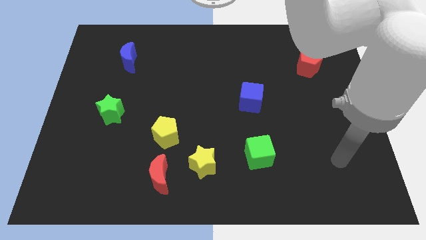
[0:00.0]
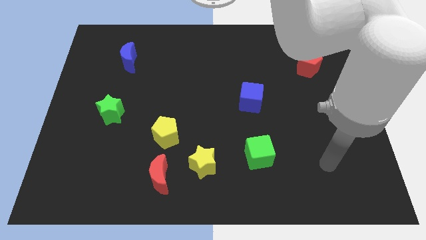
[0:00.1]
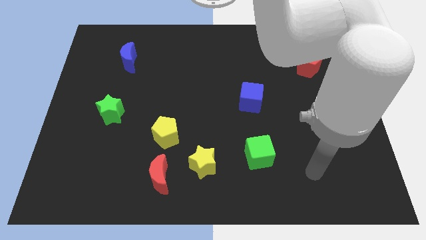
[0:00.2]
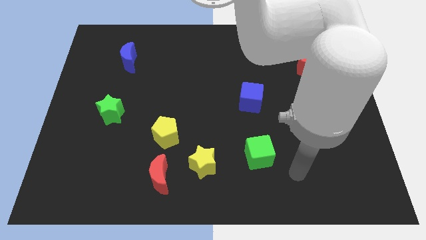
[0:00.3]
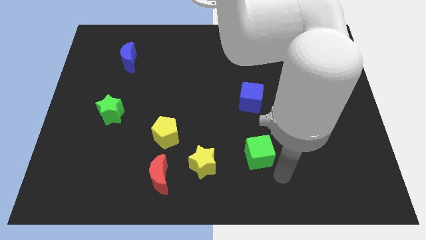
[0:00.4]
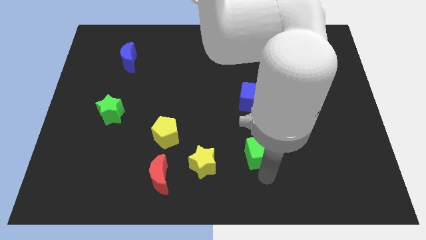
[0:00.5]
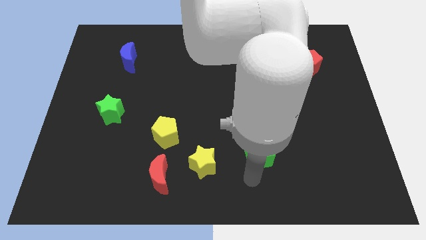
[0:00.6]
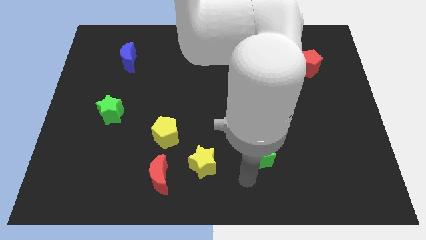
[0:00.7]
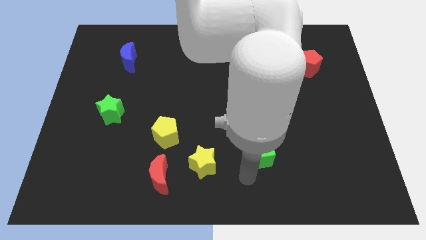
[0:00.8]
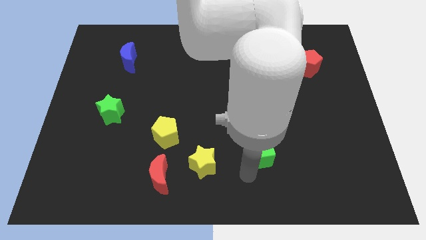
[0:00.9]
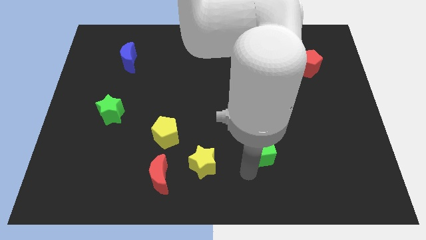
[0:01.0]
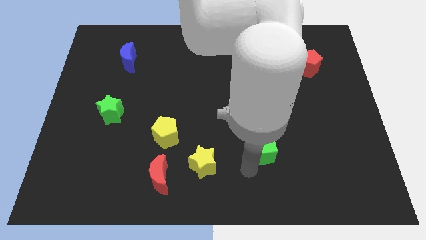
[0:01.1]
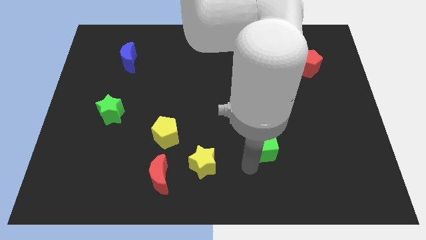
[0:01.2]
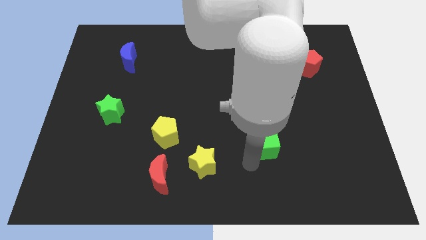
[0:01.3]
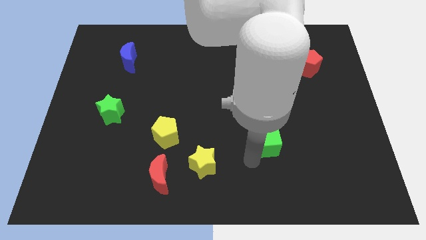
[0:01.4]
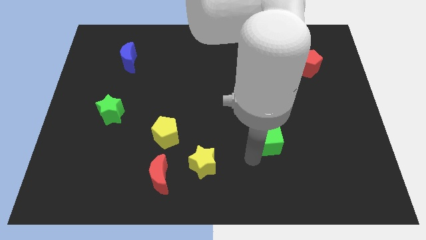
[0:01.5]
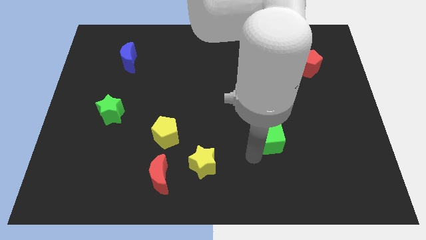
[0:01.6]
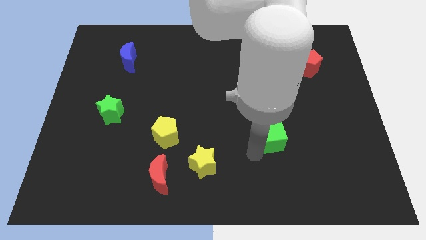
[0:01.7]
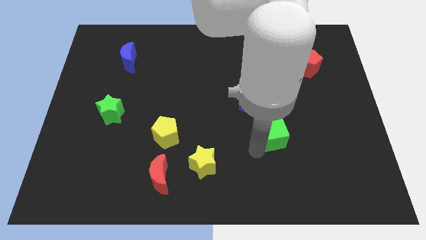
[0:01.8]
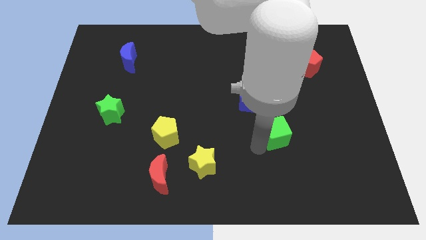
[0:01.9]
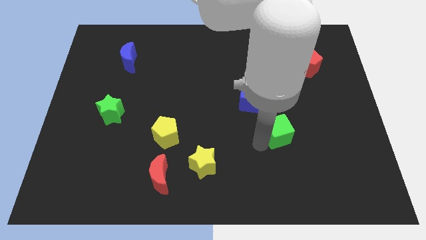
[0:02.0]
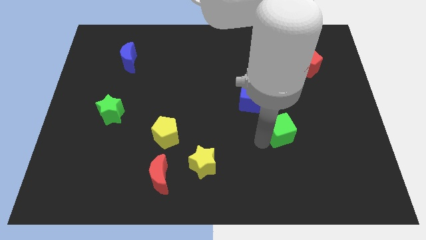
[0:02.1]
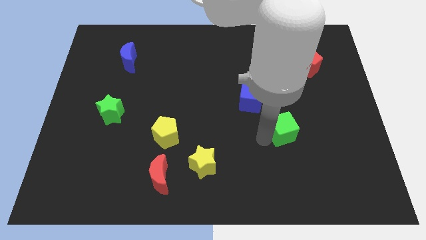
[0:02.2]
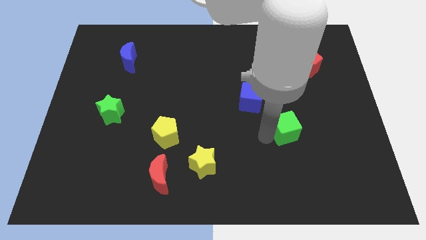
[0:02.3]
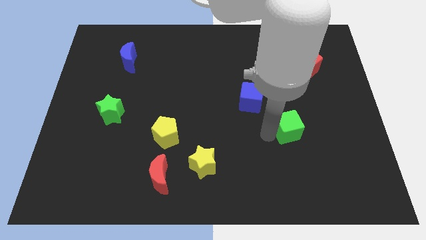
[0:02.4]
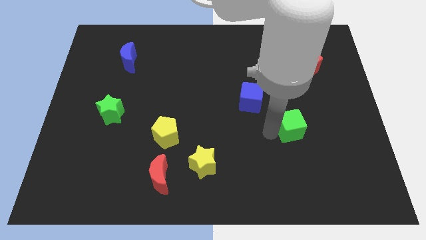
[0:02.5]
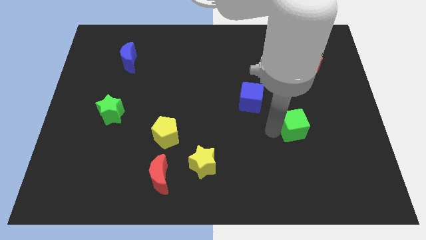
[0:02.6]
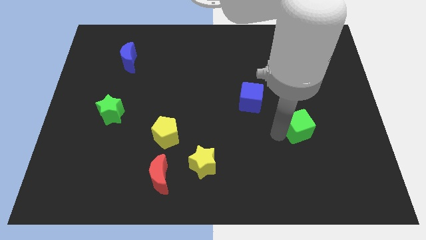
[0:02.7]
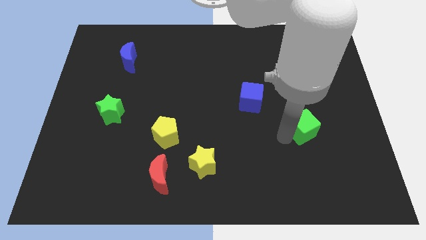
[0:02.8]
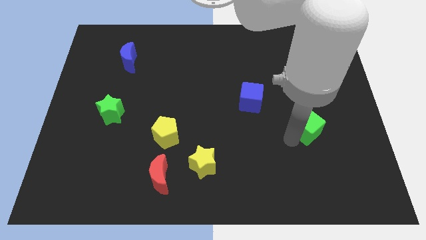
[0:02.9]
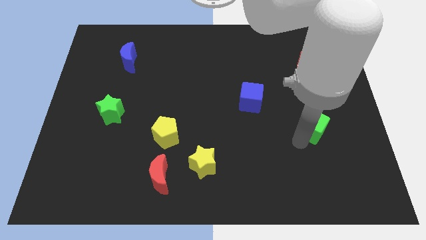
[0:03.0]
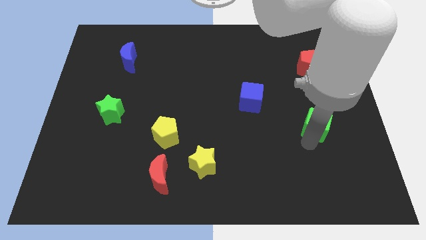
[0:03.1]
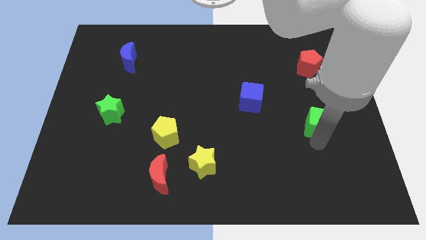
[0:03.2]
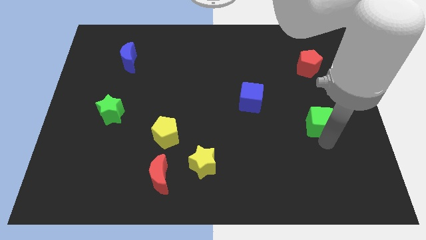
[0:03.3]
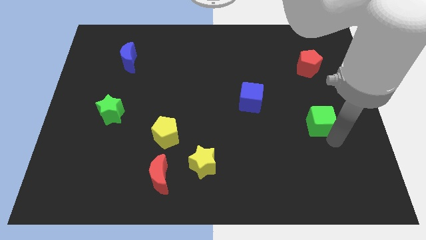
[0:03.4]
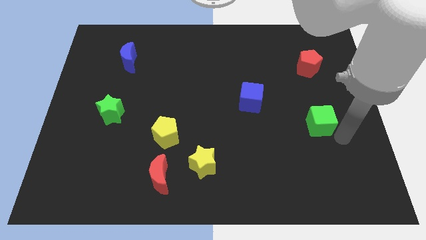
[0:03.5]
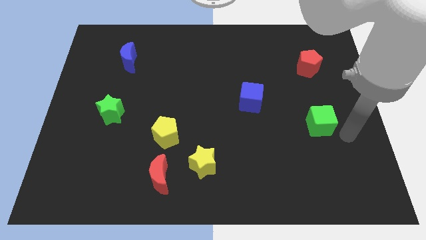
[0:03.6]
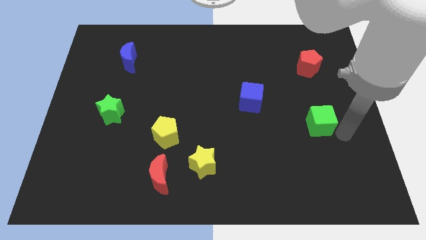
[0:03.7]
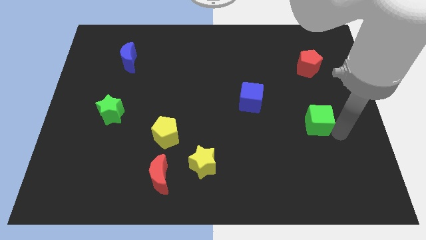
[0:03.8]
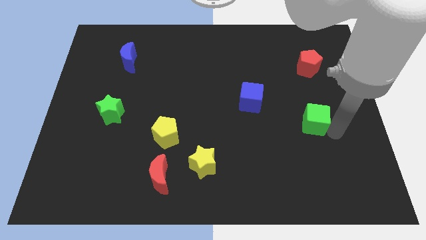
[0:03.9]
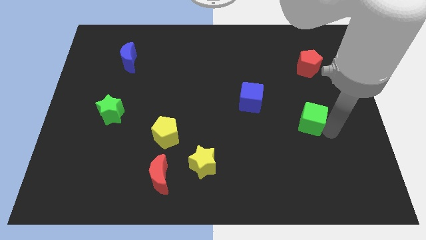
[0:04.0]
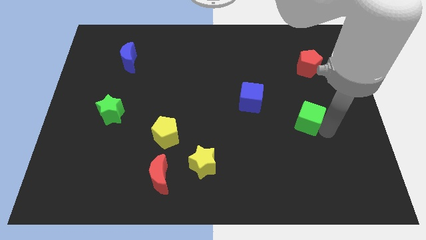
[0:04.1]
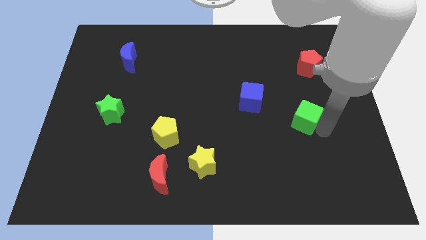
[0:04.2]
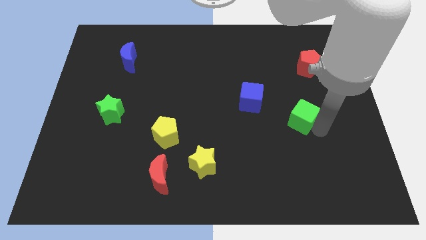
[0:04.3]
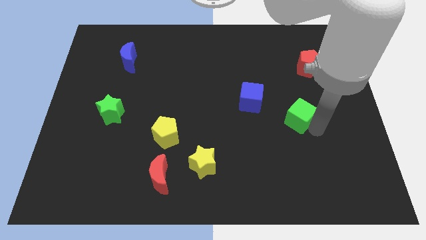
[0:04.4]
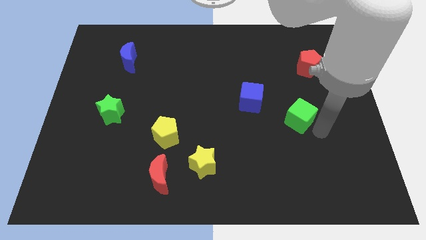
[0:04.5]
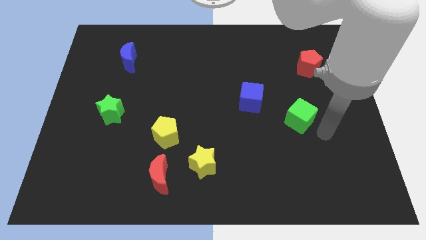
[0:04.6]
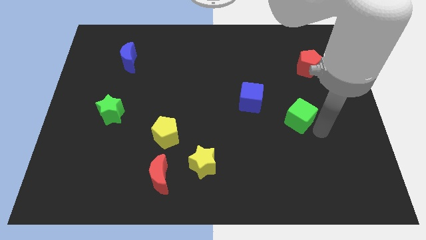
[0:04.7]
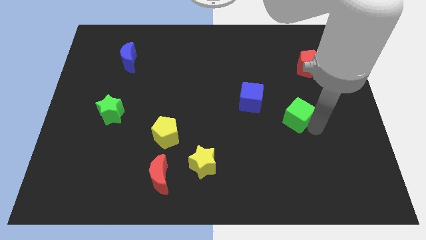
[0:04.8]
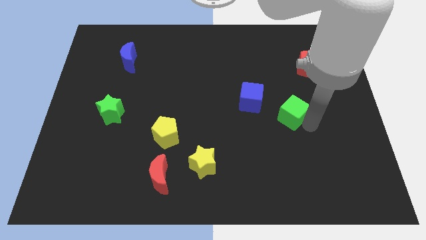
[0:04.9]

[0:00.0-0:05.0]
push the green cube somewhat upwards

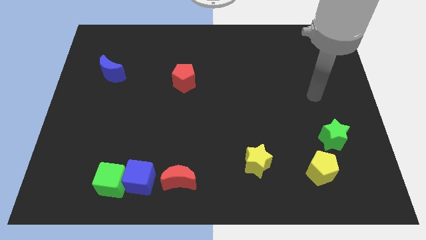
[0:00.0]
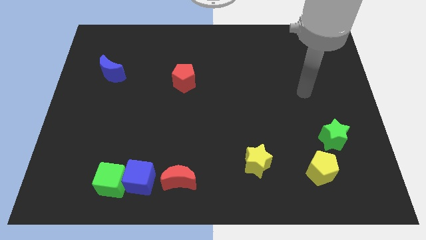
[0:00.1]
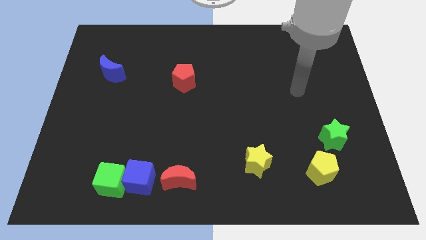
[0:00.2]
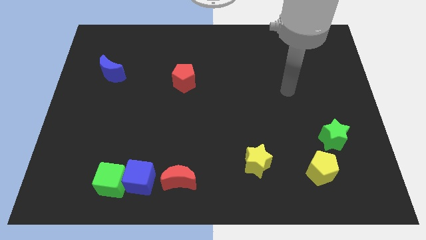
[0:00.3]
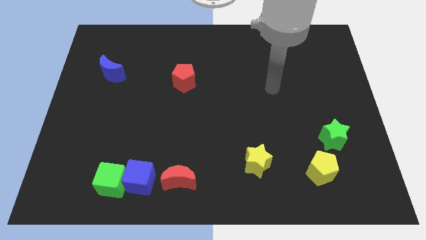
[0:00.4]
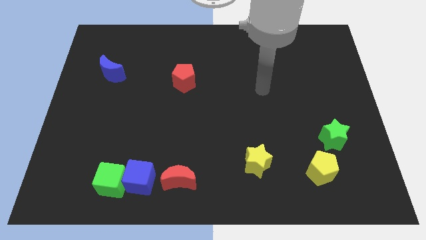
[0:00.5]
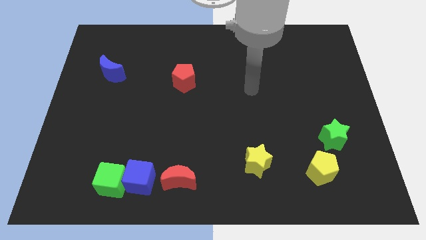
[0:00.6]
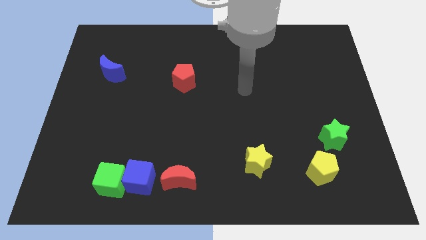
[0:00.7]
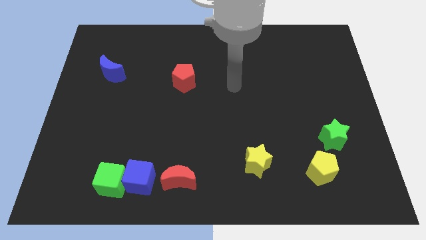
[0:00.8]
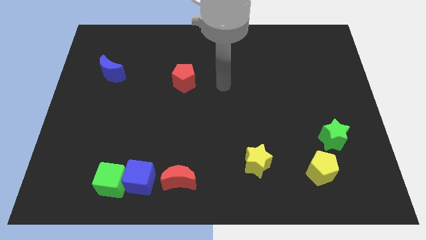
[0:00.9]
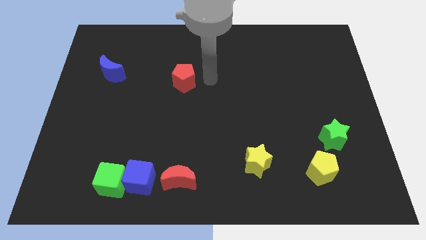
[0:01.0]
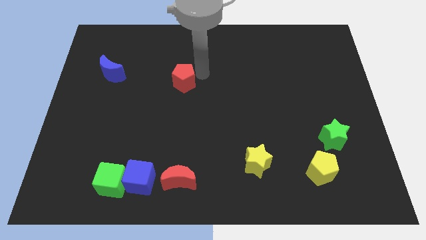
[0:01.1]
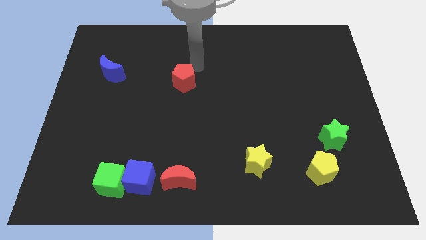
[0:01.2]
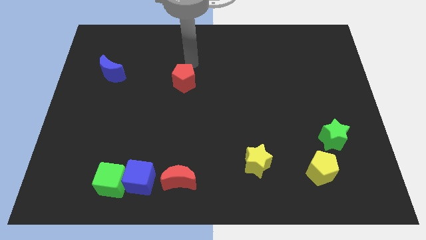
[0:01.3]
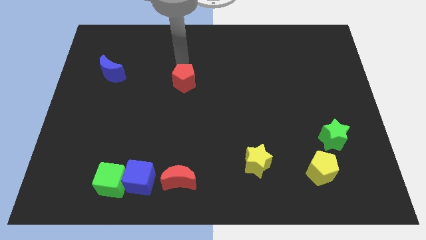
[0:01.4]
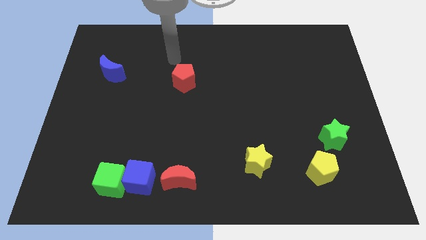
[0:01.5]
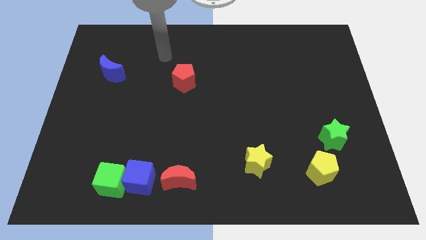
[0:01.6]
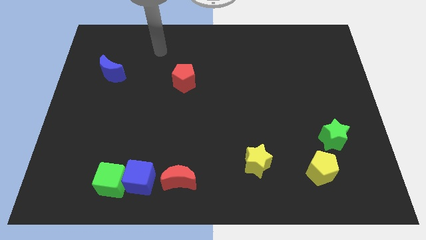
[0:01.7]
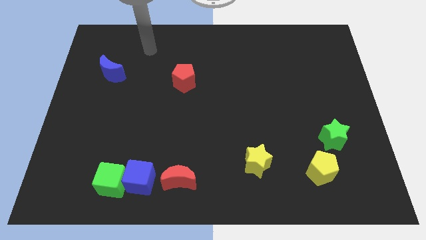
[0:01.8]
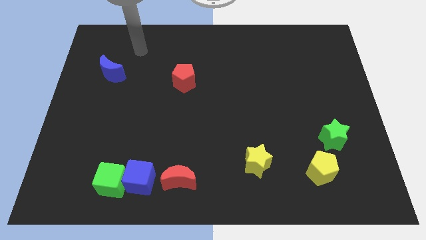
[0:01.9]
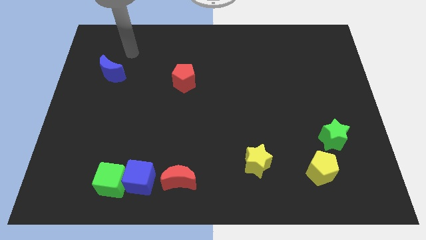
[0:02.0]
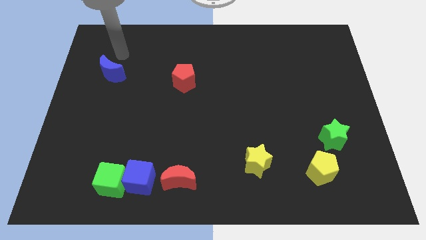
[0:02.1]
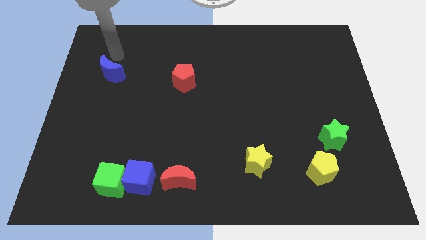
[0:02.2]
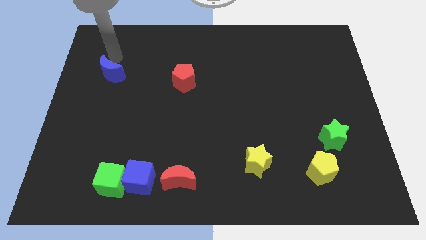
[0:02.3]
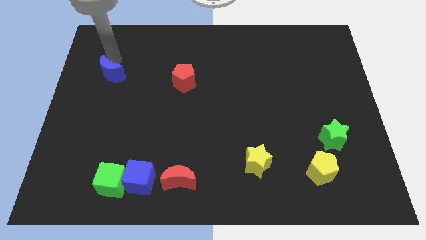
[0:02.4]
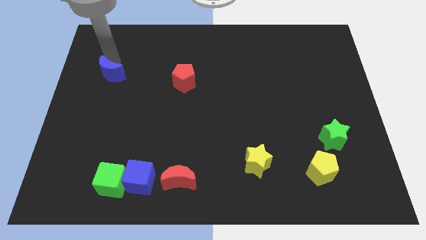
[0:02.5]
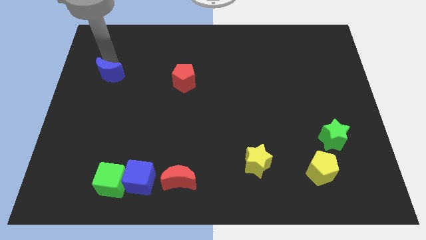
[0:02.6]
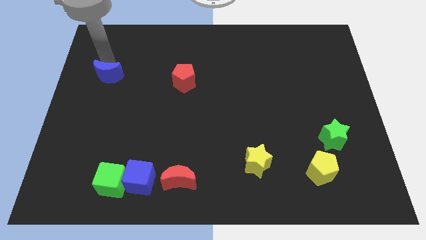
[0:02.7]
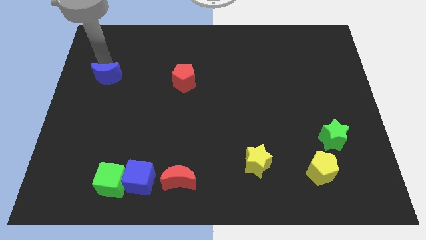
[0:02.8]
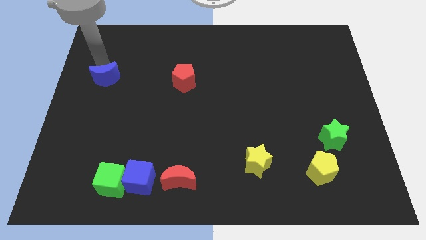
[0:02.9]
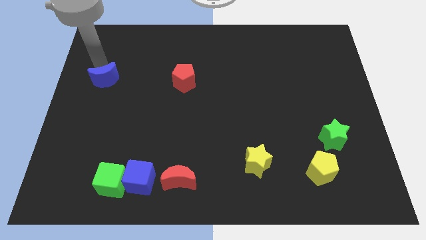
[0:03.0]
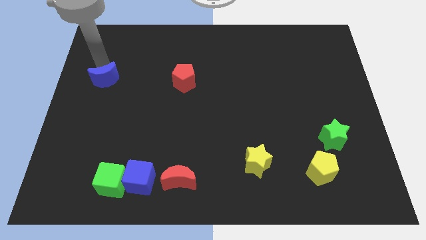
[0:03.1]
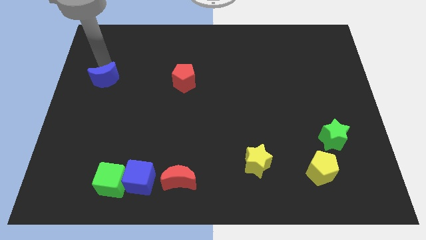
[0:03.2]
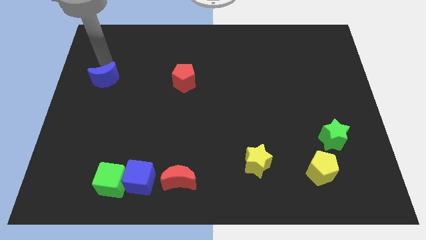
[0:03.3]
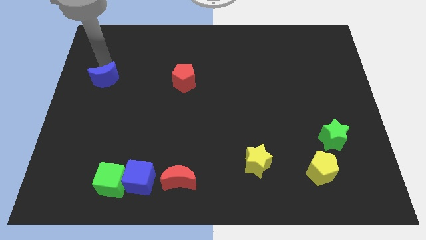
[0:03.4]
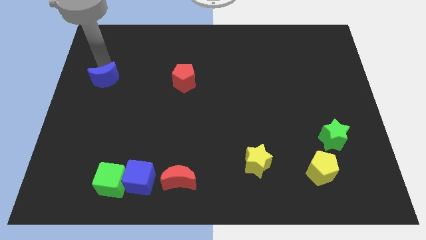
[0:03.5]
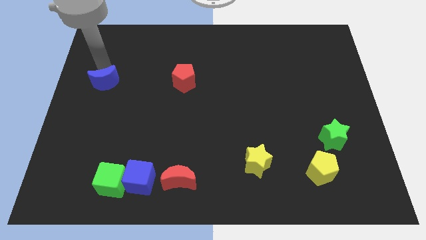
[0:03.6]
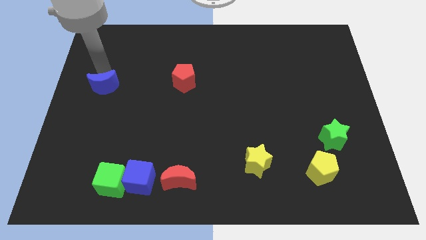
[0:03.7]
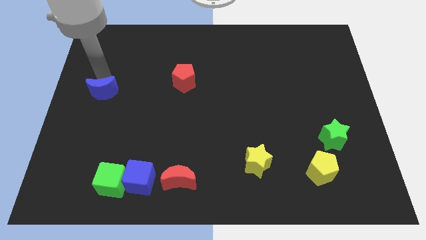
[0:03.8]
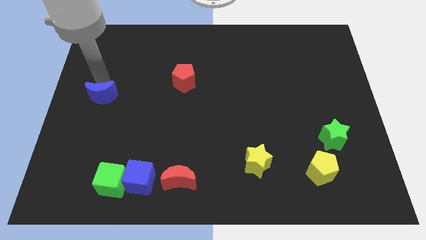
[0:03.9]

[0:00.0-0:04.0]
move the blue moon a bit downwards
